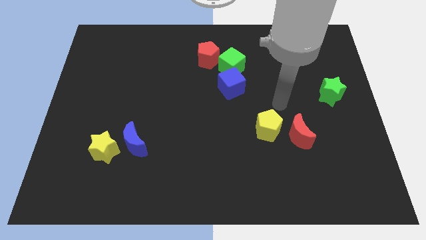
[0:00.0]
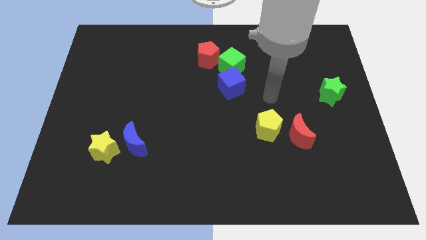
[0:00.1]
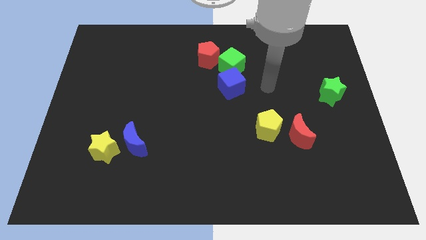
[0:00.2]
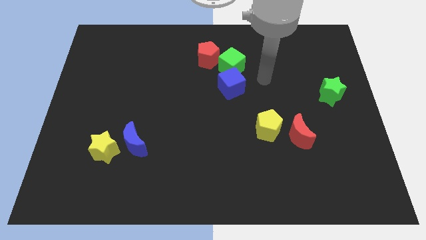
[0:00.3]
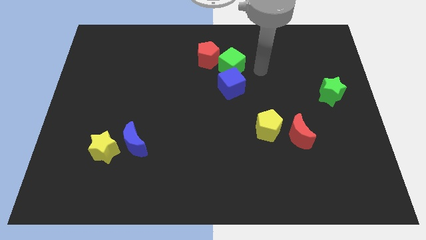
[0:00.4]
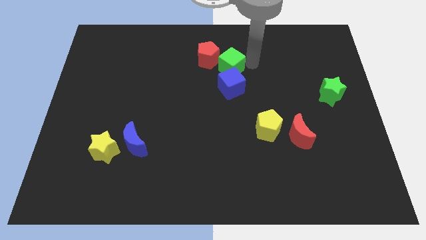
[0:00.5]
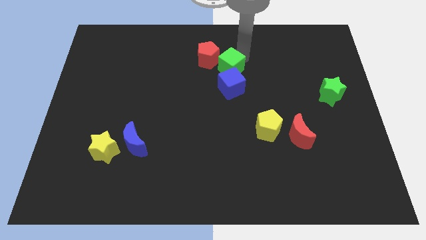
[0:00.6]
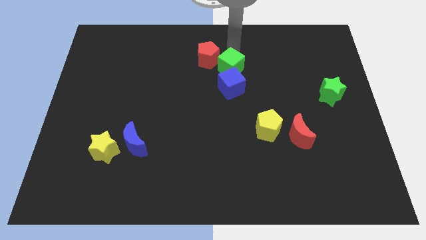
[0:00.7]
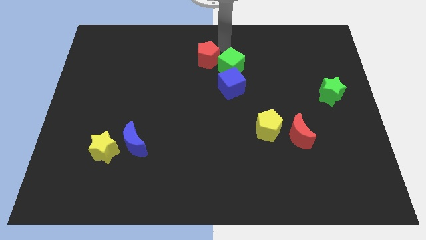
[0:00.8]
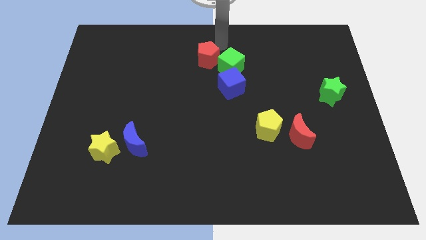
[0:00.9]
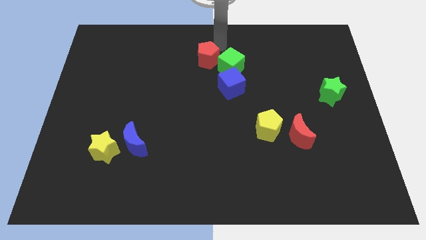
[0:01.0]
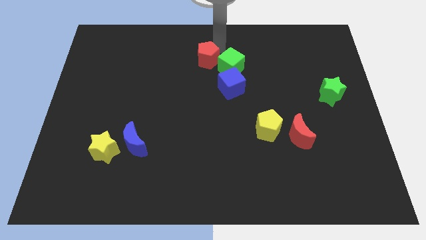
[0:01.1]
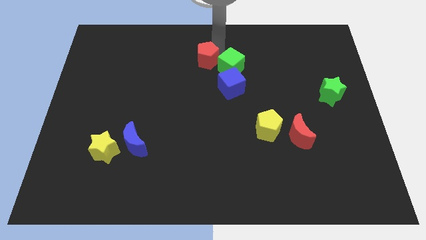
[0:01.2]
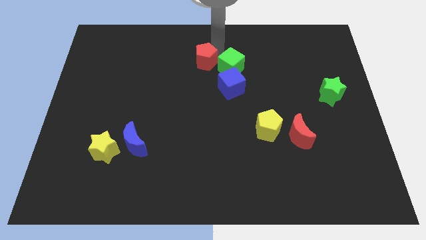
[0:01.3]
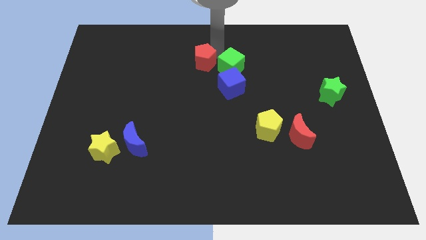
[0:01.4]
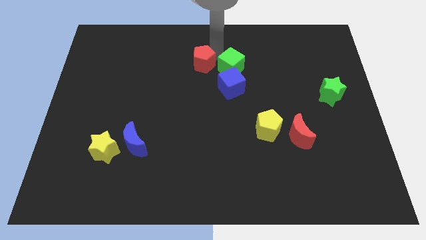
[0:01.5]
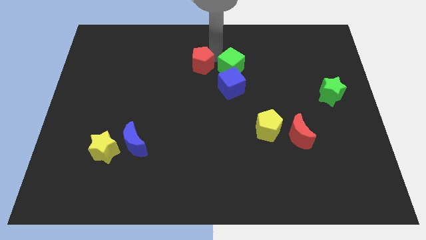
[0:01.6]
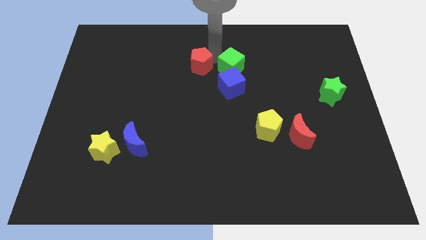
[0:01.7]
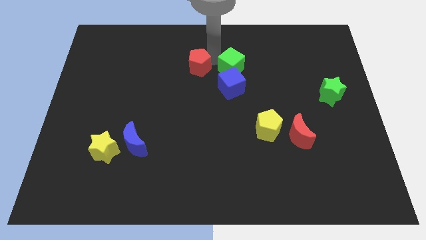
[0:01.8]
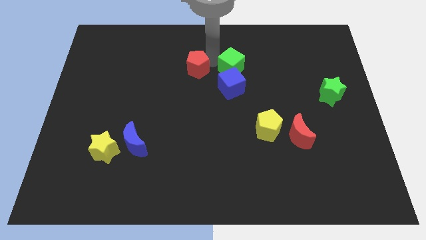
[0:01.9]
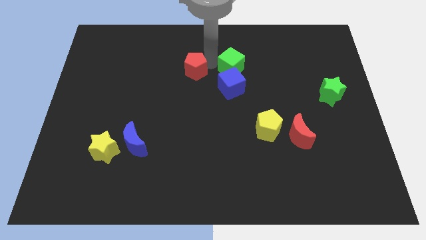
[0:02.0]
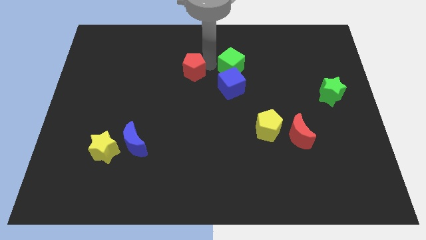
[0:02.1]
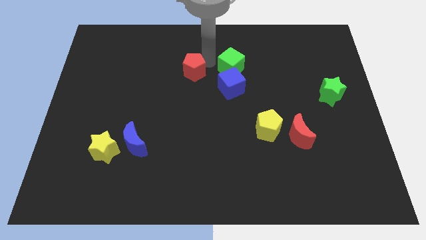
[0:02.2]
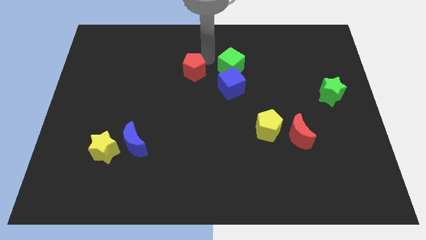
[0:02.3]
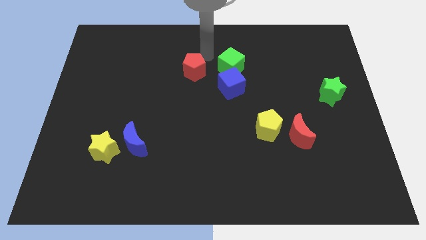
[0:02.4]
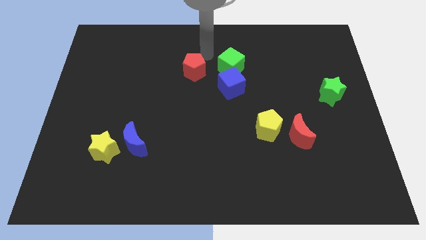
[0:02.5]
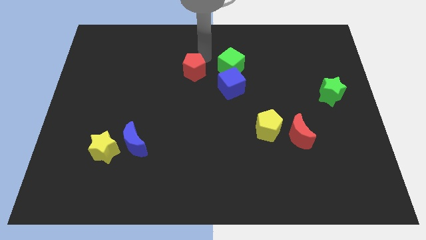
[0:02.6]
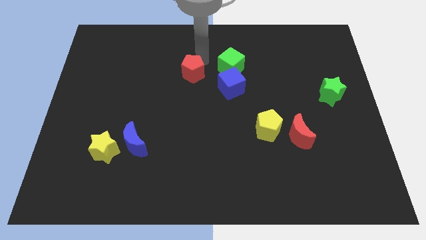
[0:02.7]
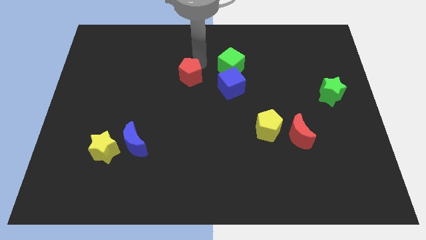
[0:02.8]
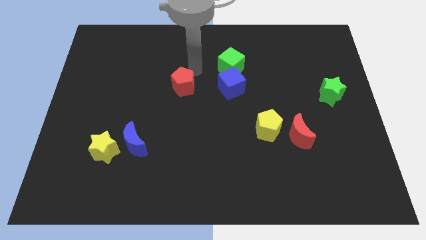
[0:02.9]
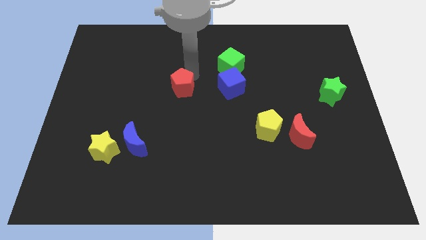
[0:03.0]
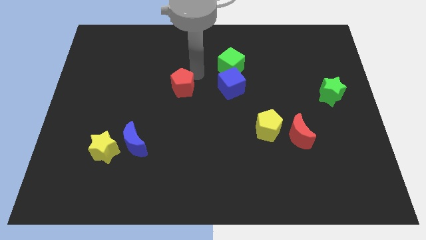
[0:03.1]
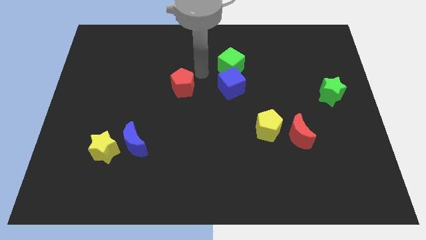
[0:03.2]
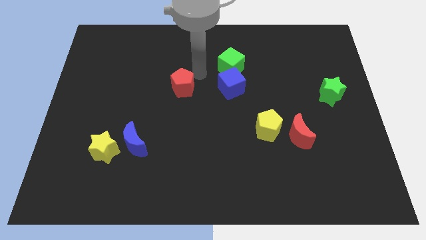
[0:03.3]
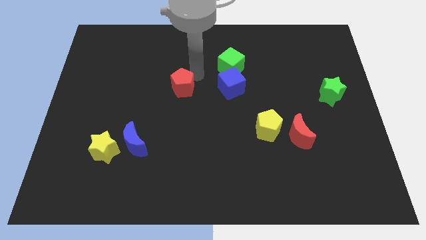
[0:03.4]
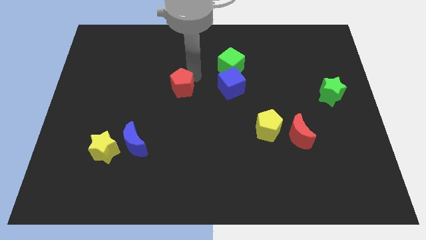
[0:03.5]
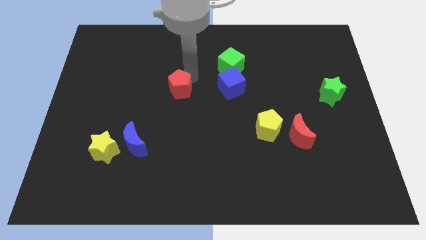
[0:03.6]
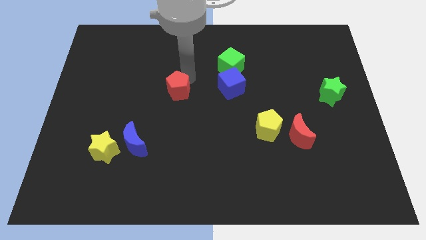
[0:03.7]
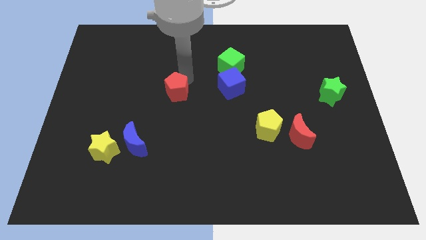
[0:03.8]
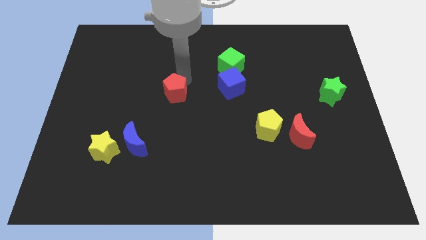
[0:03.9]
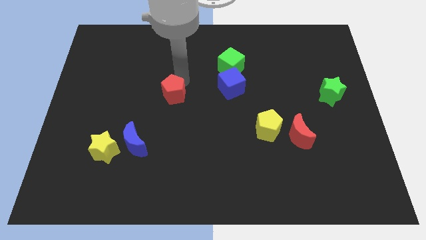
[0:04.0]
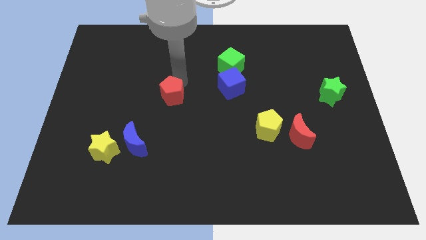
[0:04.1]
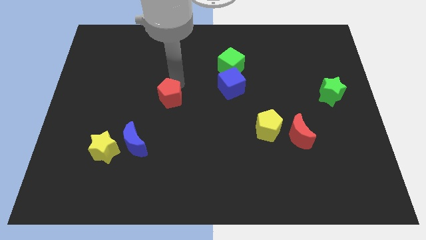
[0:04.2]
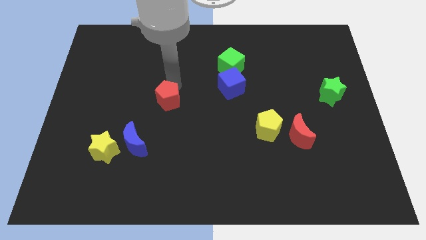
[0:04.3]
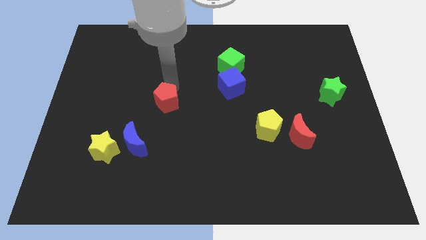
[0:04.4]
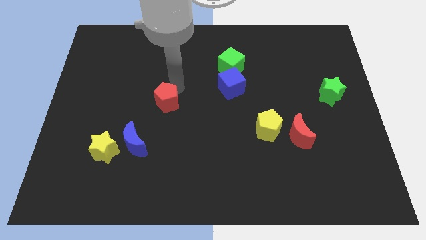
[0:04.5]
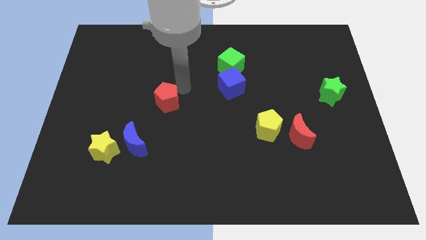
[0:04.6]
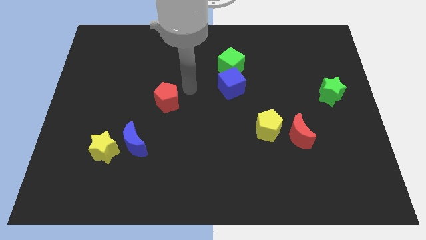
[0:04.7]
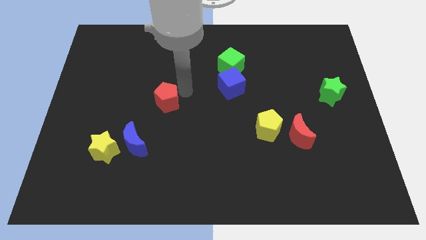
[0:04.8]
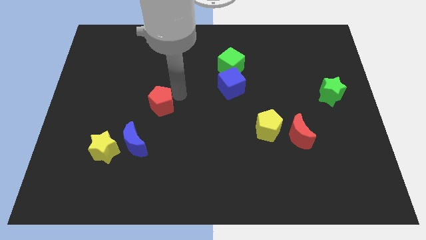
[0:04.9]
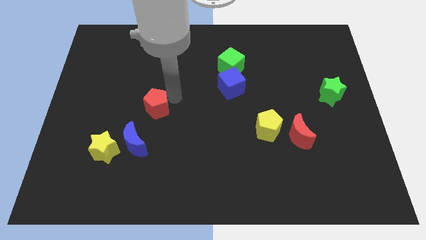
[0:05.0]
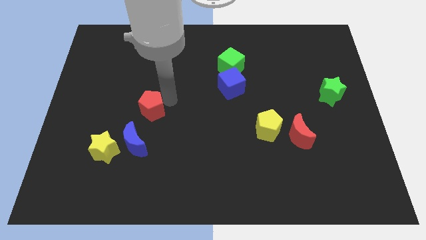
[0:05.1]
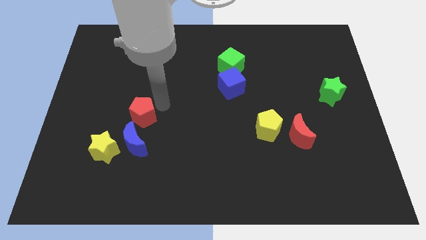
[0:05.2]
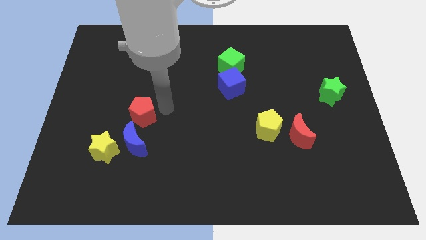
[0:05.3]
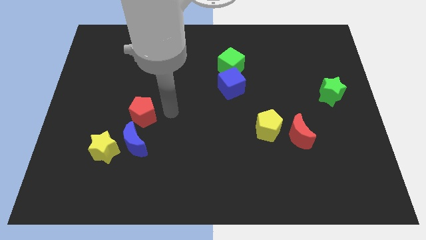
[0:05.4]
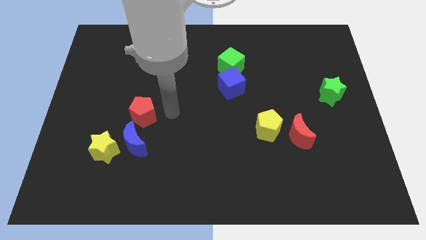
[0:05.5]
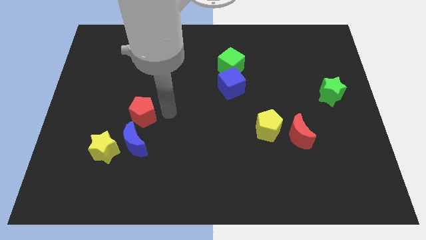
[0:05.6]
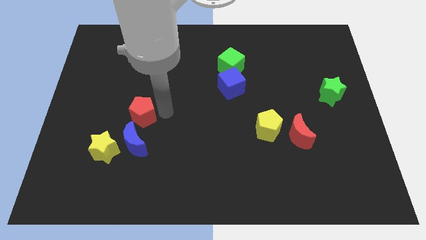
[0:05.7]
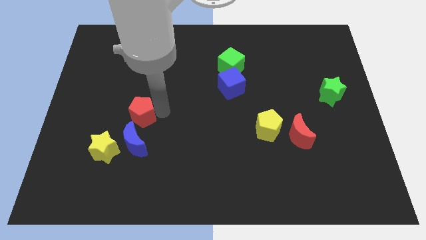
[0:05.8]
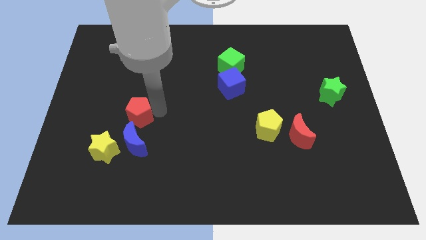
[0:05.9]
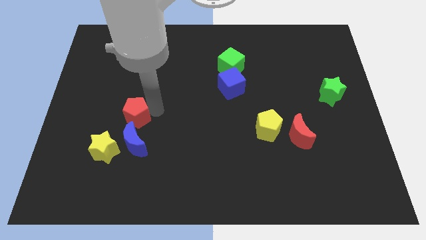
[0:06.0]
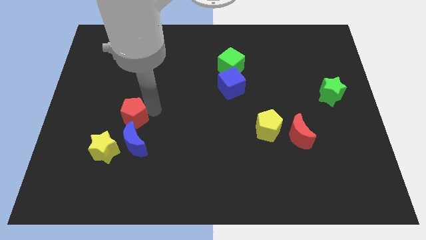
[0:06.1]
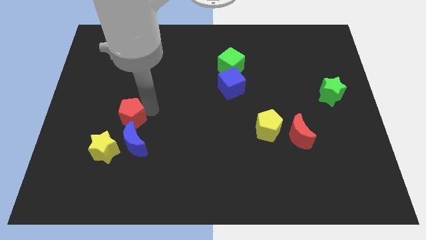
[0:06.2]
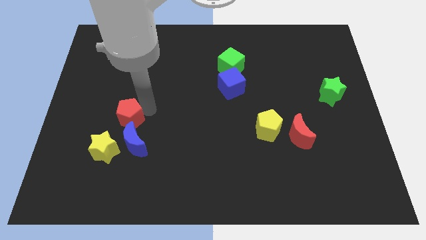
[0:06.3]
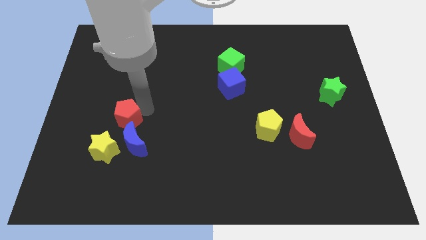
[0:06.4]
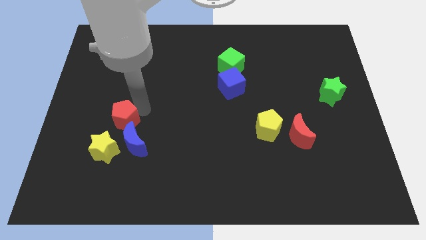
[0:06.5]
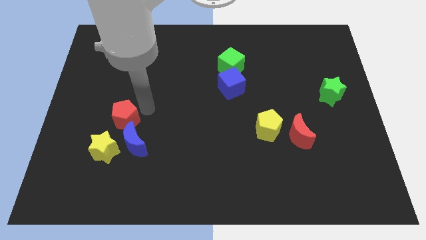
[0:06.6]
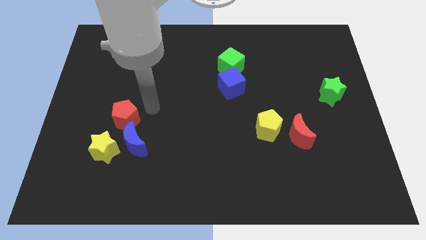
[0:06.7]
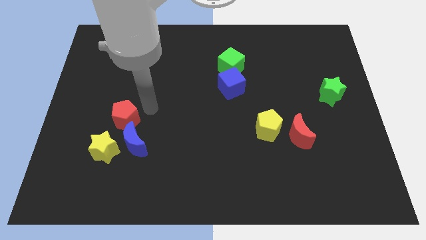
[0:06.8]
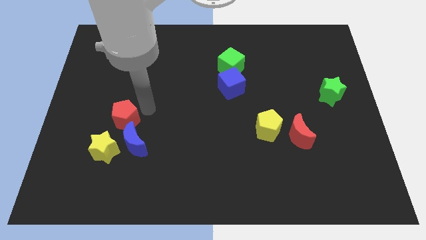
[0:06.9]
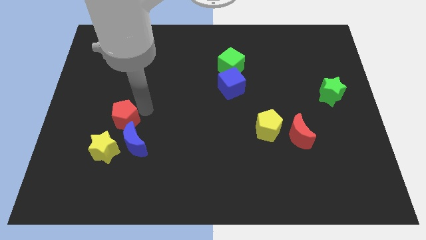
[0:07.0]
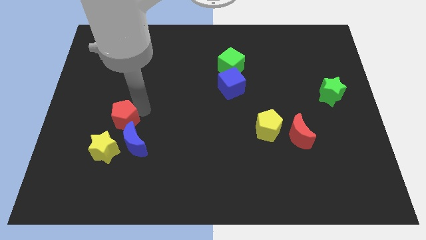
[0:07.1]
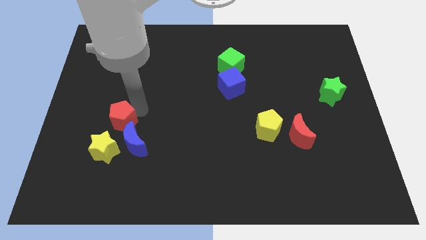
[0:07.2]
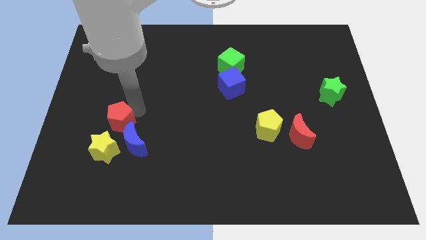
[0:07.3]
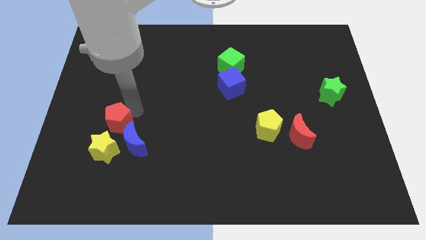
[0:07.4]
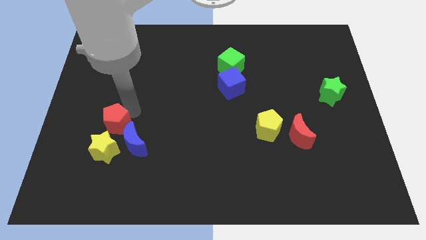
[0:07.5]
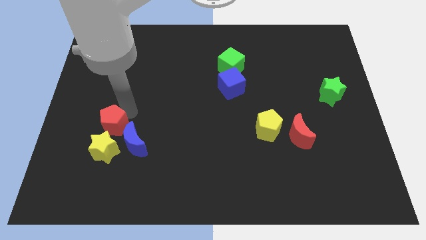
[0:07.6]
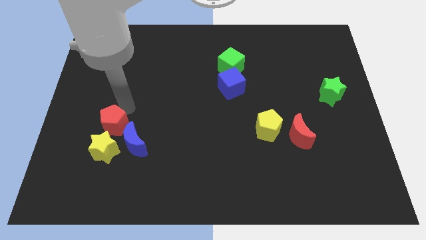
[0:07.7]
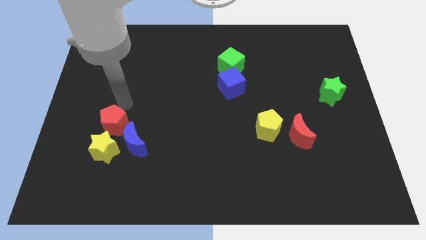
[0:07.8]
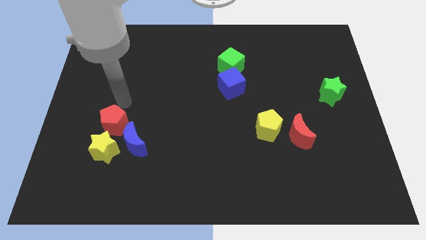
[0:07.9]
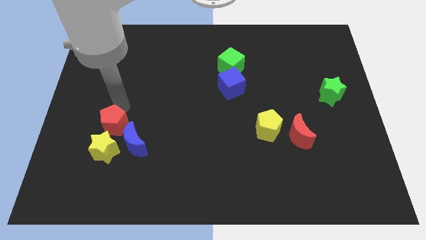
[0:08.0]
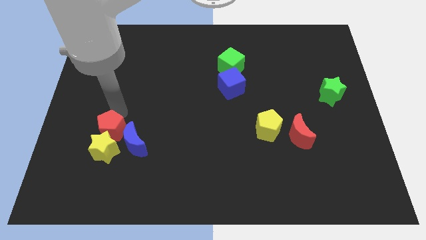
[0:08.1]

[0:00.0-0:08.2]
push the red pentagon next to the yellow star
